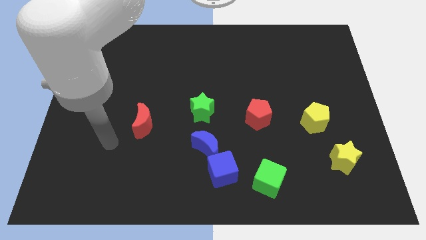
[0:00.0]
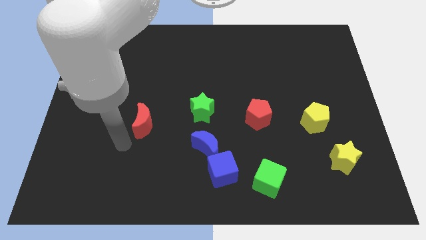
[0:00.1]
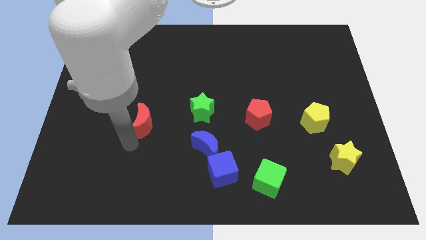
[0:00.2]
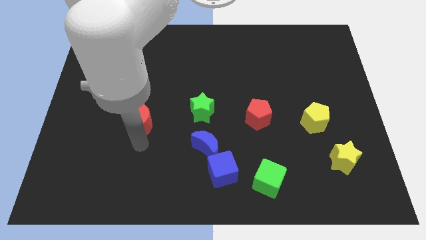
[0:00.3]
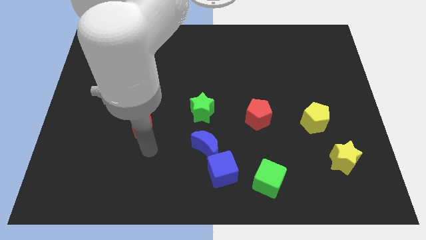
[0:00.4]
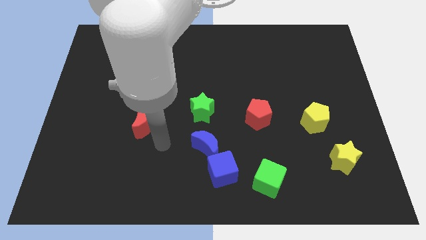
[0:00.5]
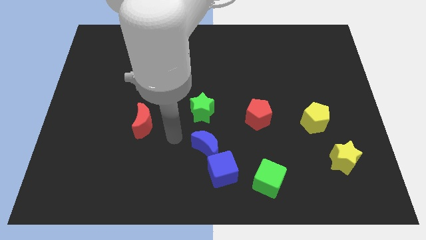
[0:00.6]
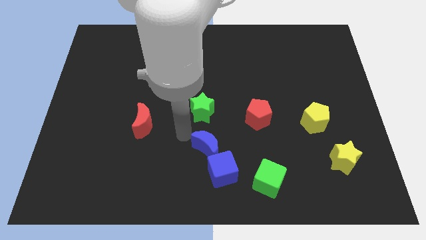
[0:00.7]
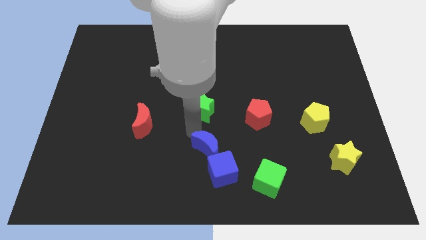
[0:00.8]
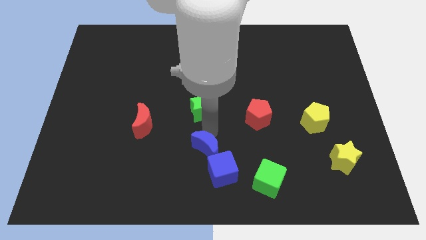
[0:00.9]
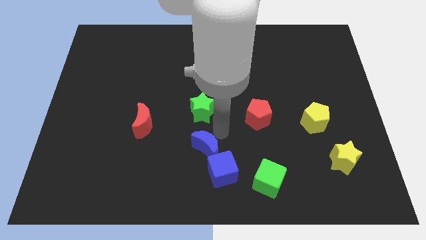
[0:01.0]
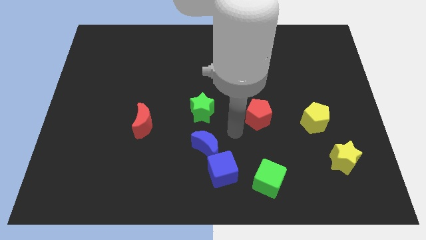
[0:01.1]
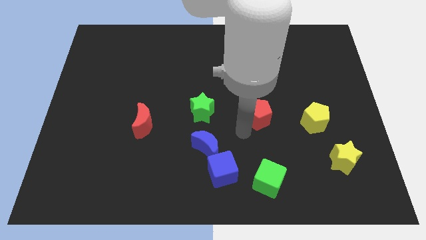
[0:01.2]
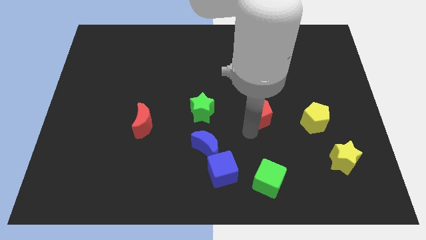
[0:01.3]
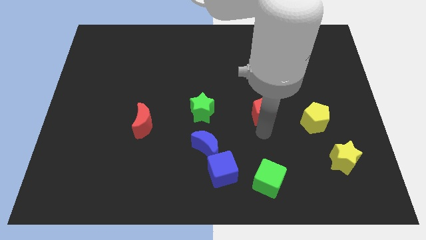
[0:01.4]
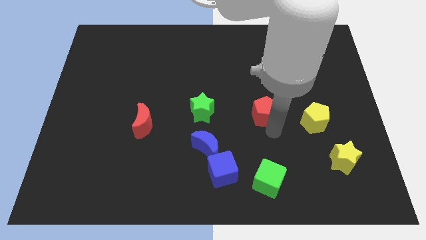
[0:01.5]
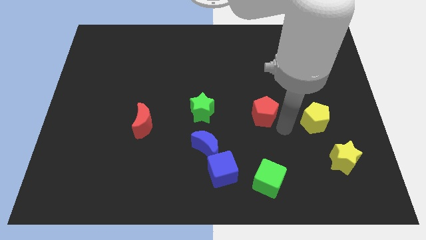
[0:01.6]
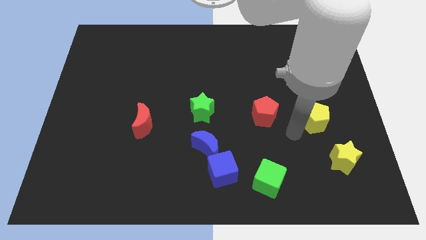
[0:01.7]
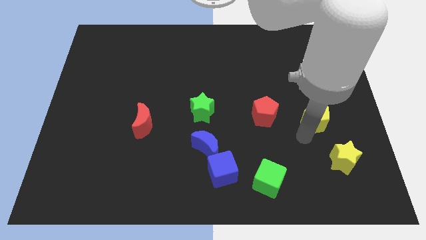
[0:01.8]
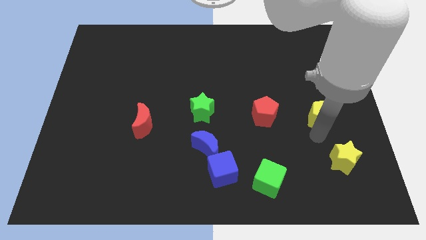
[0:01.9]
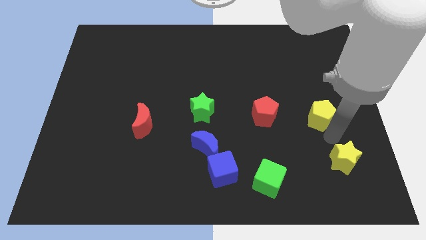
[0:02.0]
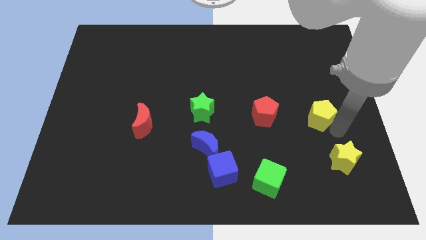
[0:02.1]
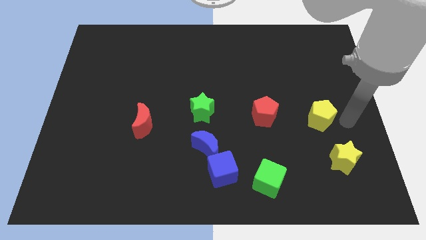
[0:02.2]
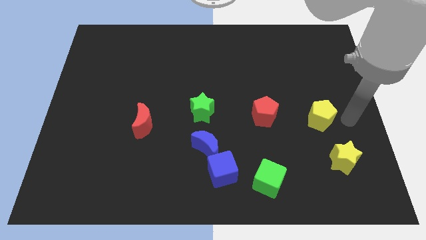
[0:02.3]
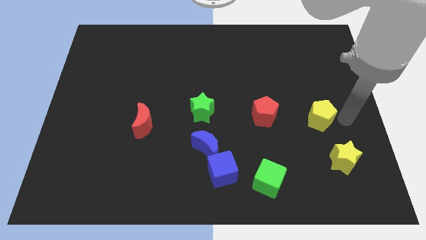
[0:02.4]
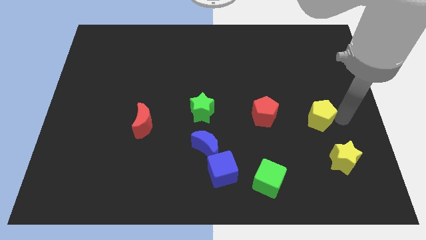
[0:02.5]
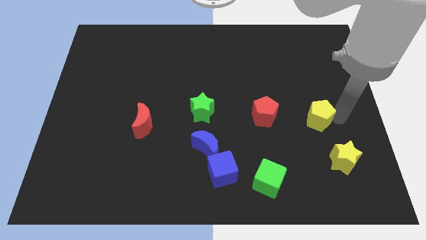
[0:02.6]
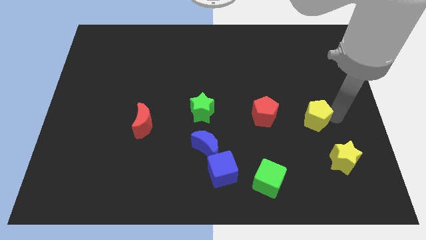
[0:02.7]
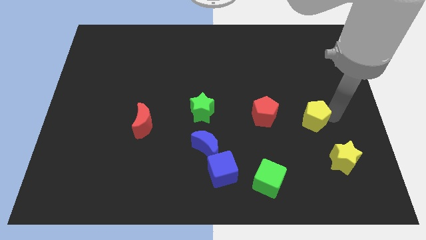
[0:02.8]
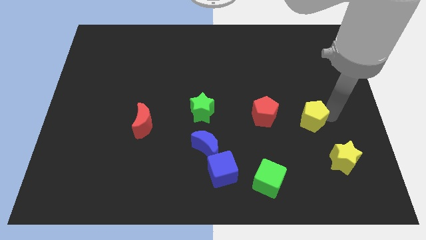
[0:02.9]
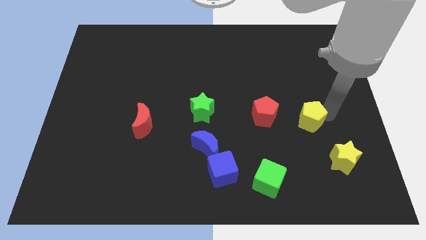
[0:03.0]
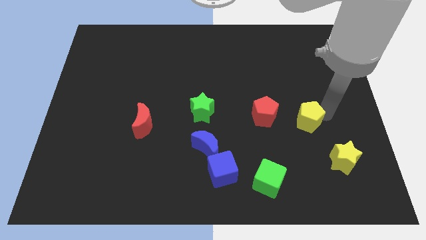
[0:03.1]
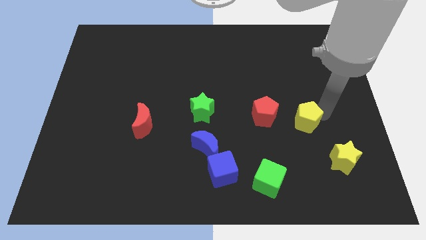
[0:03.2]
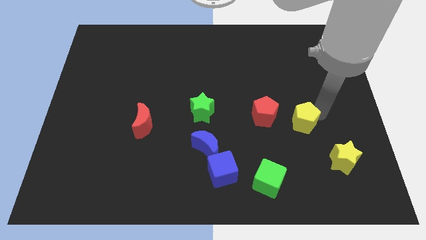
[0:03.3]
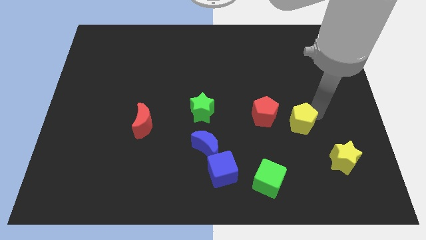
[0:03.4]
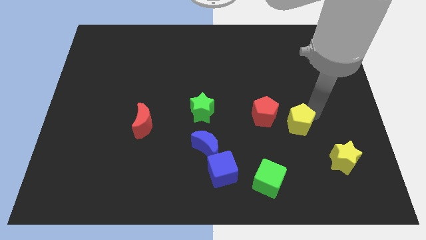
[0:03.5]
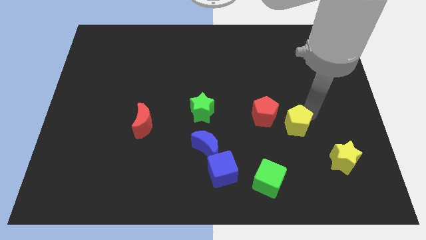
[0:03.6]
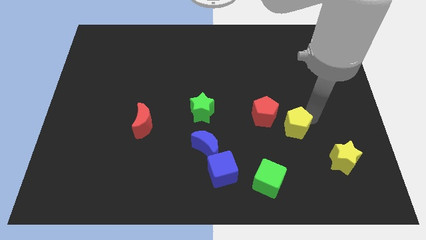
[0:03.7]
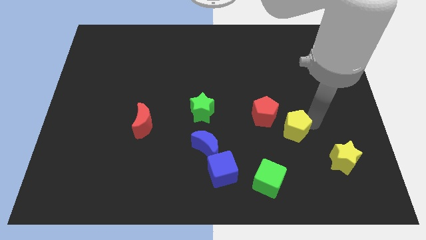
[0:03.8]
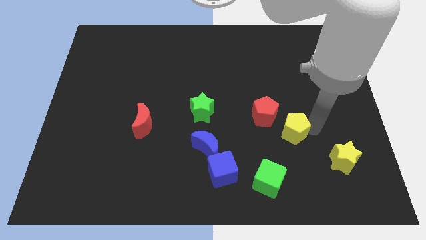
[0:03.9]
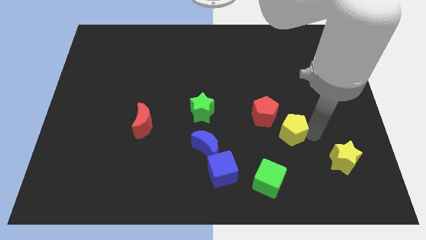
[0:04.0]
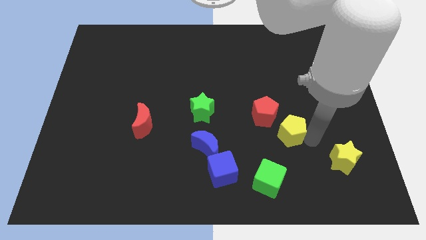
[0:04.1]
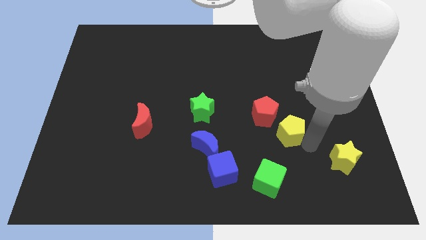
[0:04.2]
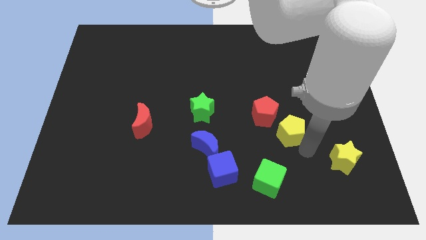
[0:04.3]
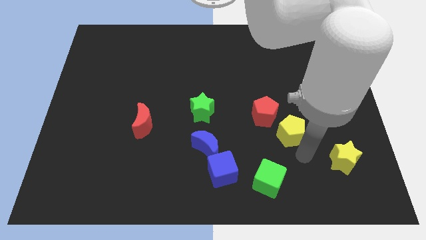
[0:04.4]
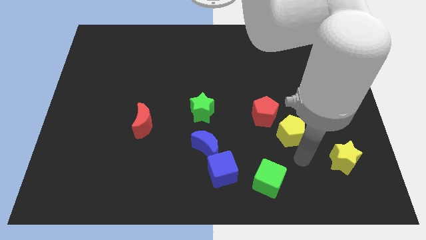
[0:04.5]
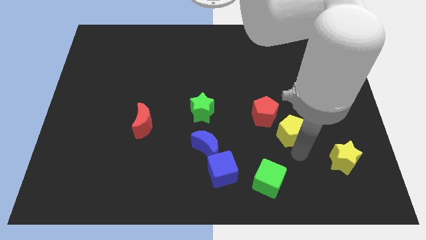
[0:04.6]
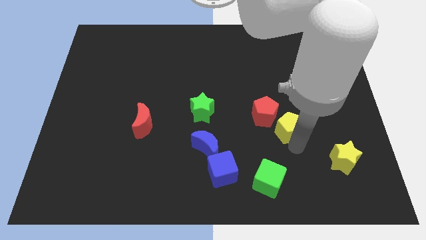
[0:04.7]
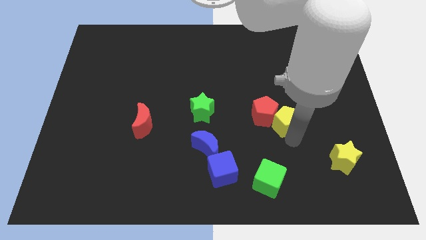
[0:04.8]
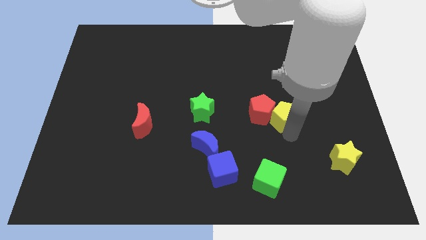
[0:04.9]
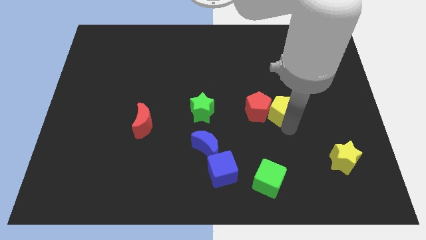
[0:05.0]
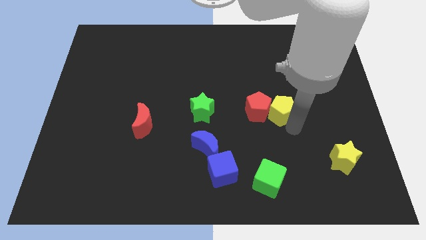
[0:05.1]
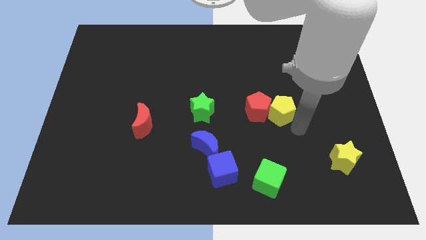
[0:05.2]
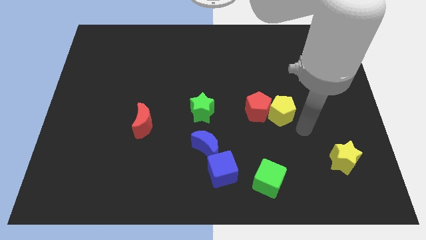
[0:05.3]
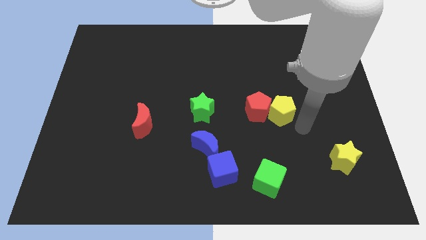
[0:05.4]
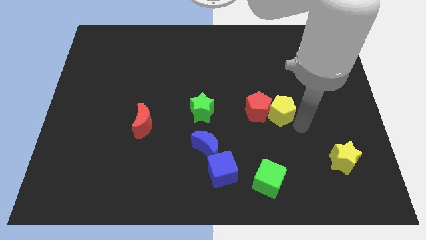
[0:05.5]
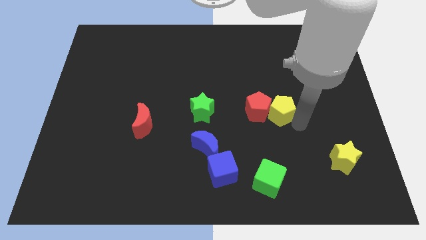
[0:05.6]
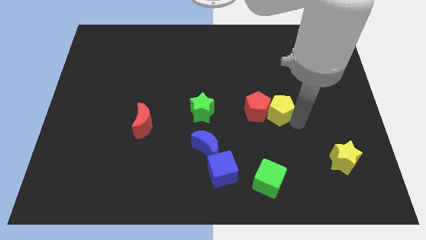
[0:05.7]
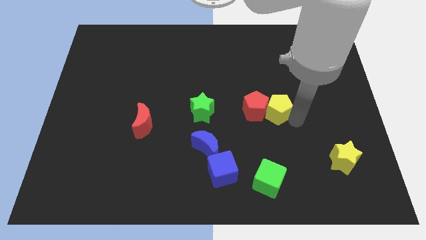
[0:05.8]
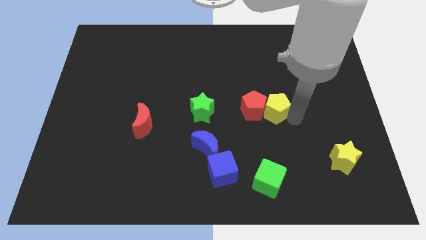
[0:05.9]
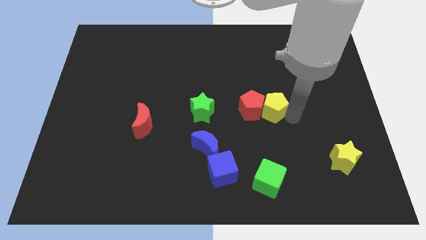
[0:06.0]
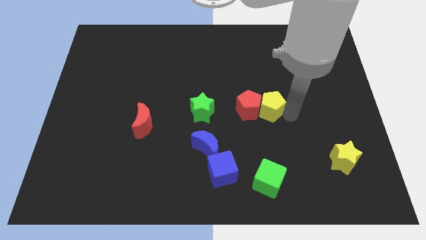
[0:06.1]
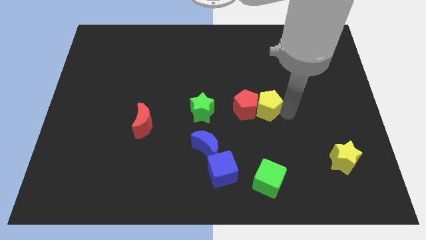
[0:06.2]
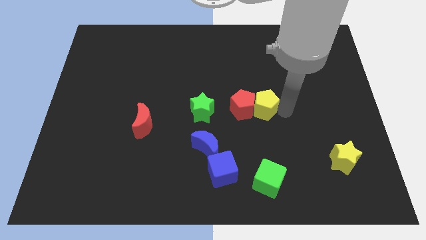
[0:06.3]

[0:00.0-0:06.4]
move the yellow pentagon to the center of the board

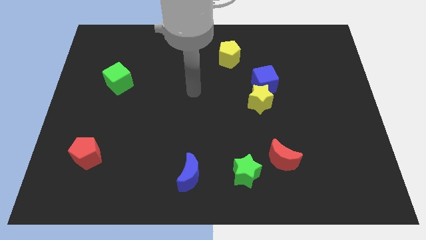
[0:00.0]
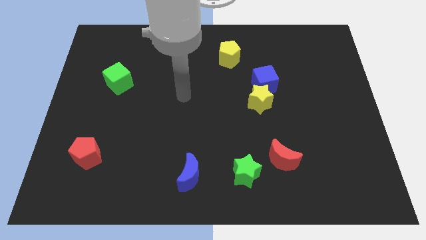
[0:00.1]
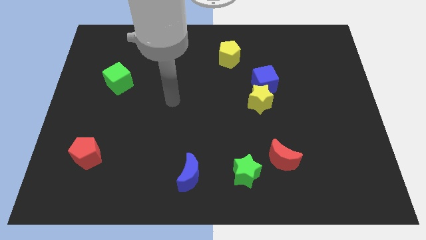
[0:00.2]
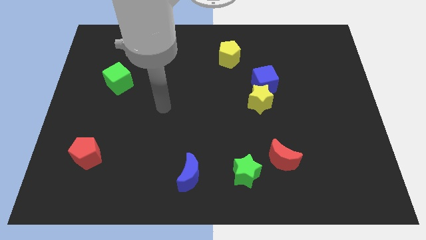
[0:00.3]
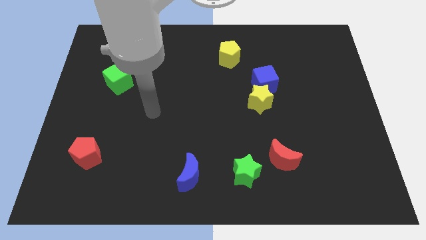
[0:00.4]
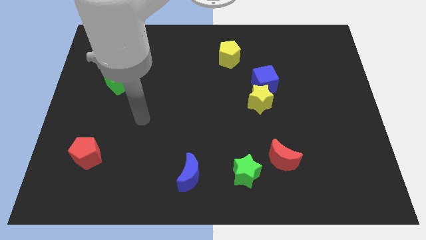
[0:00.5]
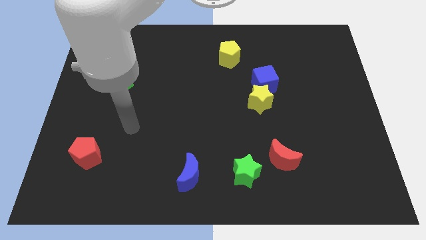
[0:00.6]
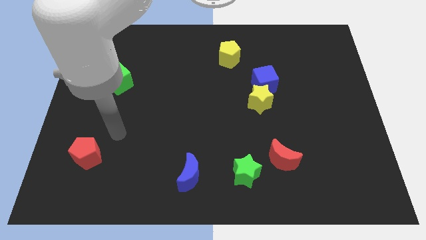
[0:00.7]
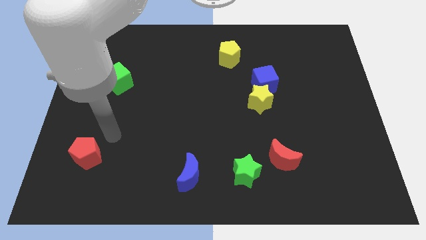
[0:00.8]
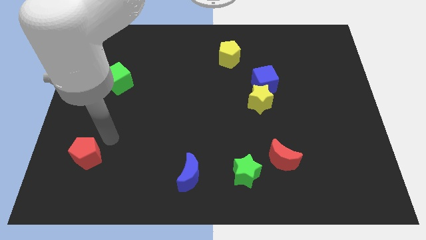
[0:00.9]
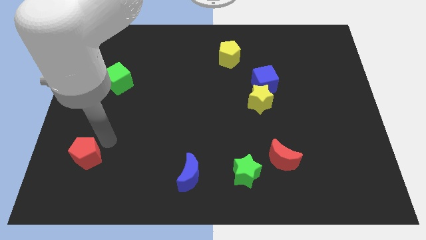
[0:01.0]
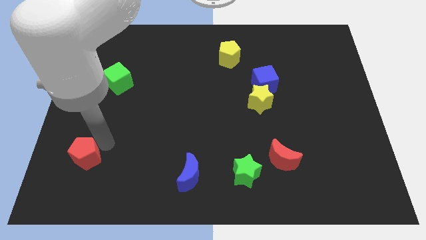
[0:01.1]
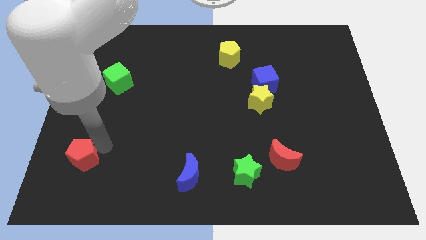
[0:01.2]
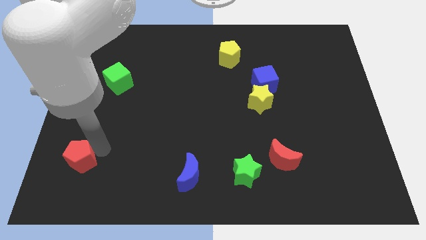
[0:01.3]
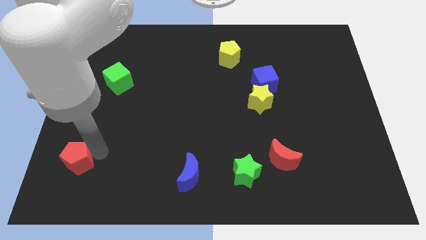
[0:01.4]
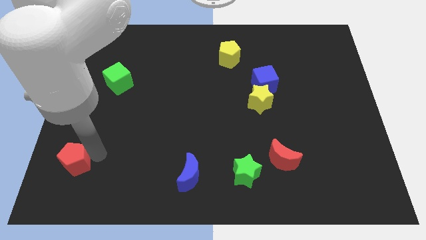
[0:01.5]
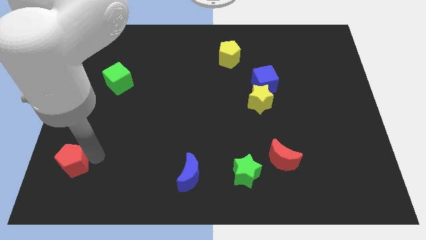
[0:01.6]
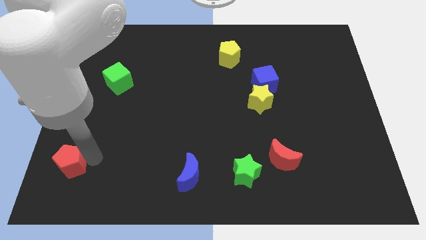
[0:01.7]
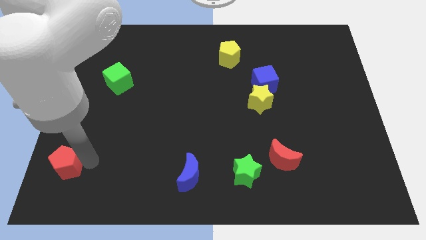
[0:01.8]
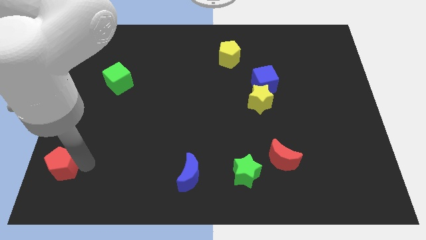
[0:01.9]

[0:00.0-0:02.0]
push the red pentagon to the bottom left of the board
